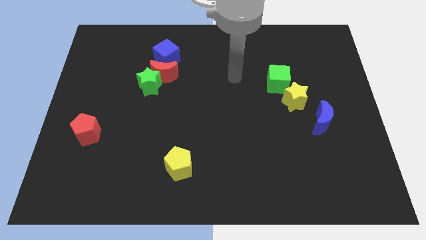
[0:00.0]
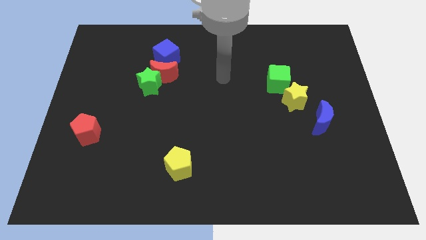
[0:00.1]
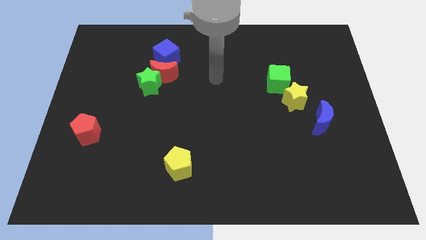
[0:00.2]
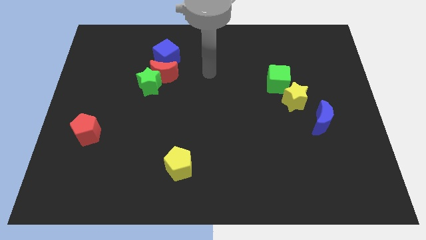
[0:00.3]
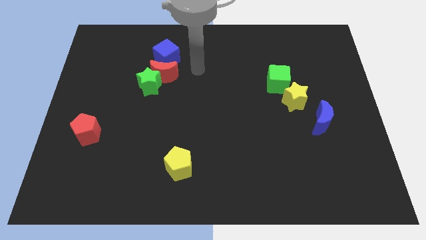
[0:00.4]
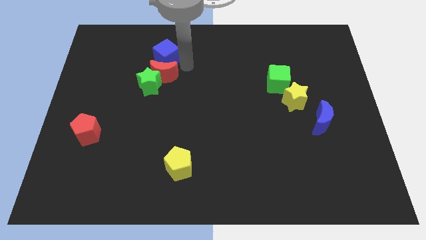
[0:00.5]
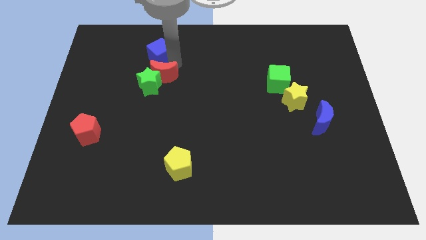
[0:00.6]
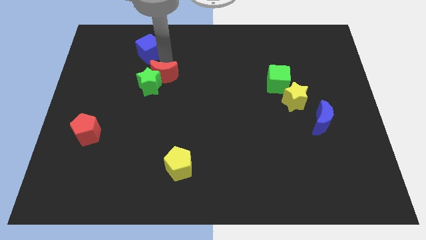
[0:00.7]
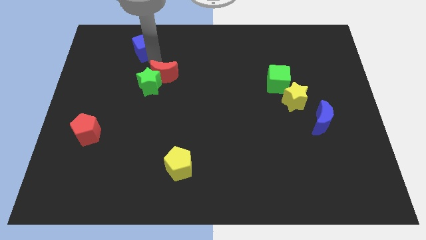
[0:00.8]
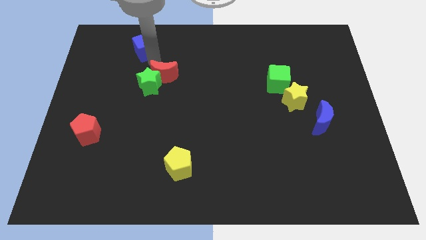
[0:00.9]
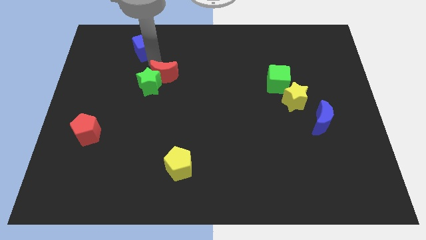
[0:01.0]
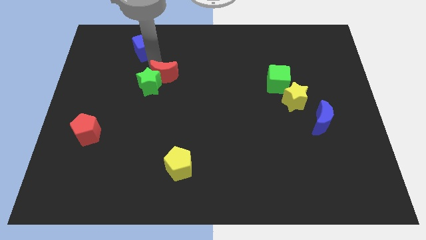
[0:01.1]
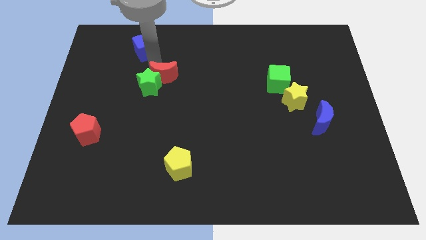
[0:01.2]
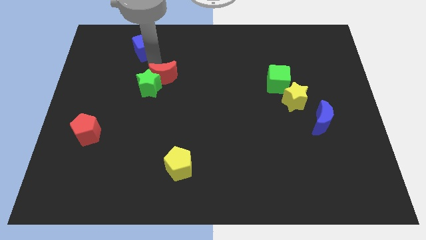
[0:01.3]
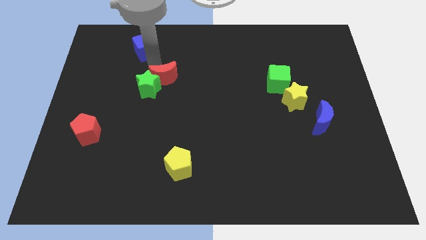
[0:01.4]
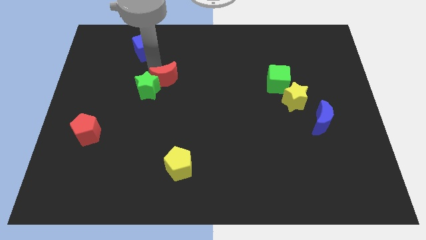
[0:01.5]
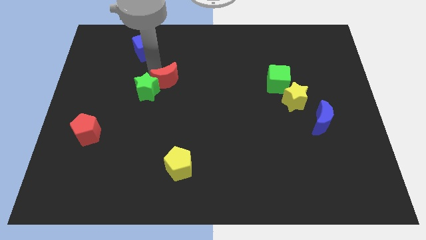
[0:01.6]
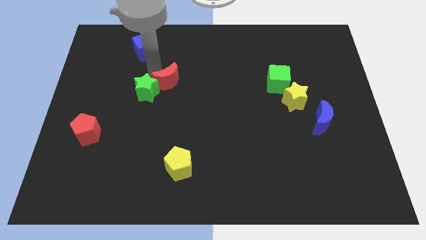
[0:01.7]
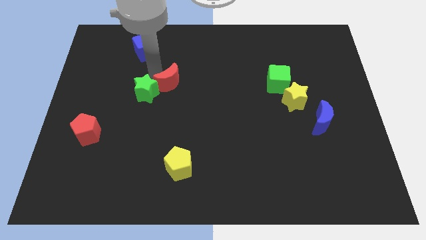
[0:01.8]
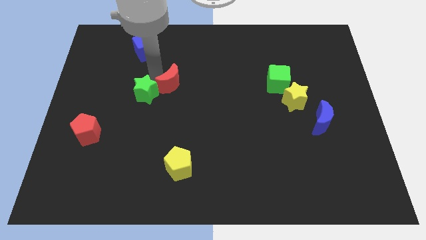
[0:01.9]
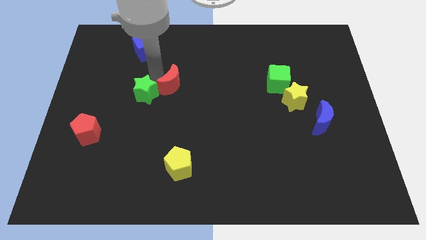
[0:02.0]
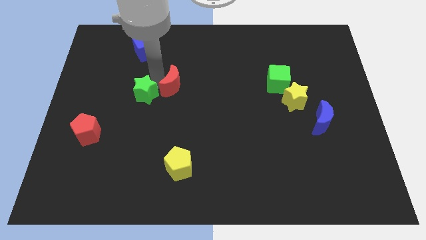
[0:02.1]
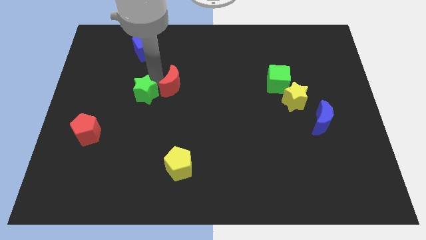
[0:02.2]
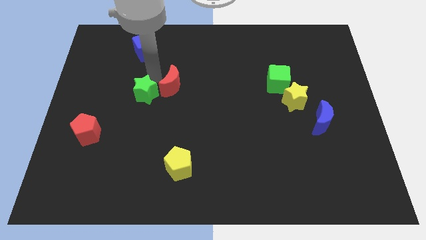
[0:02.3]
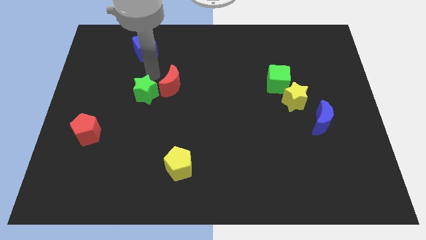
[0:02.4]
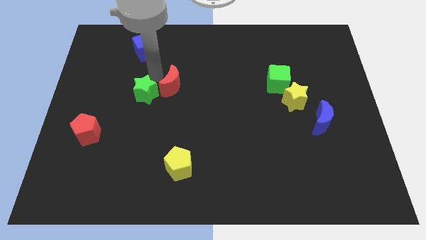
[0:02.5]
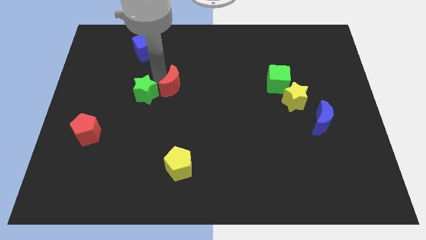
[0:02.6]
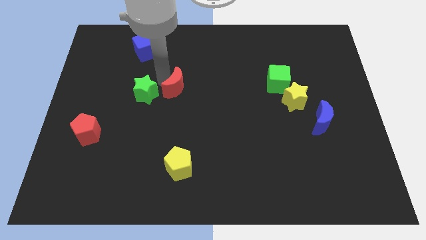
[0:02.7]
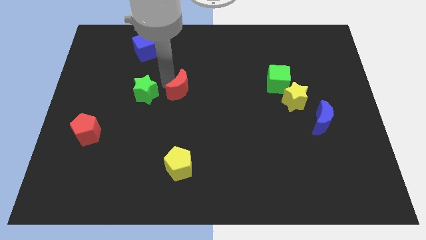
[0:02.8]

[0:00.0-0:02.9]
move the red moon away from the green star and blue cube

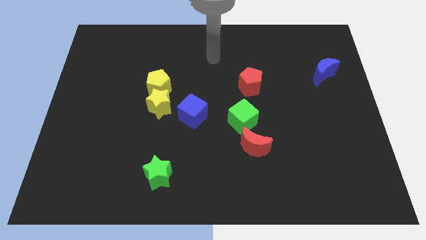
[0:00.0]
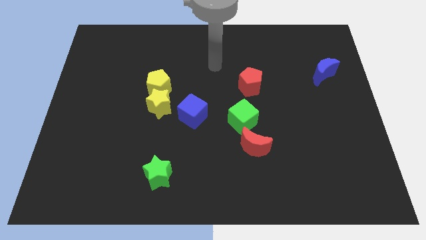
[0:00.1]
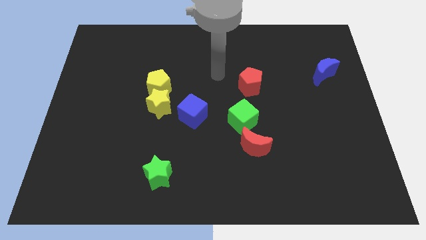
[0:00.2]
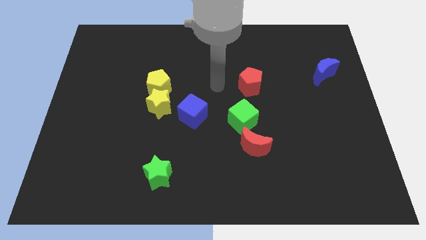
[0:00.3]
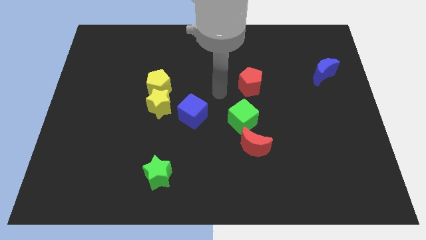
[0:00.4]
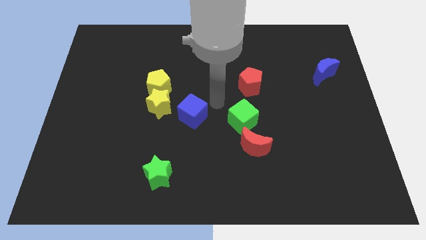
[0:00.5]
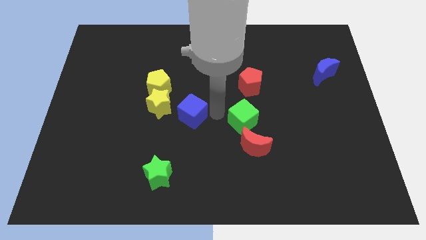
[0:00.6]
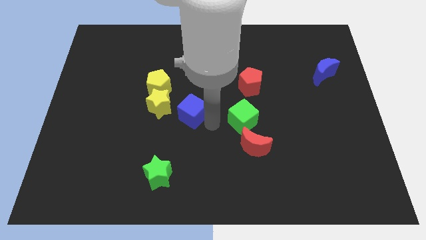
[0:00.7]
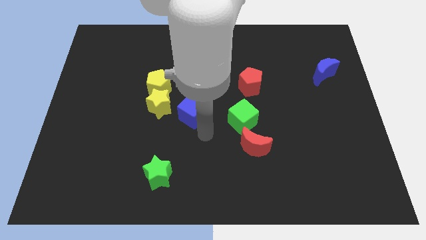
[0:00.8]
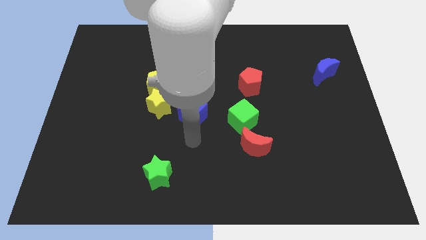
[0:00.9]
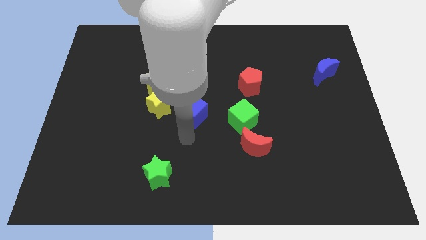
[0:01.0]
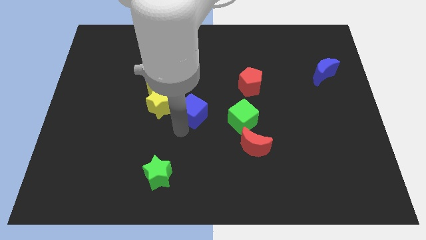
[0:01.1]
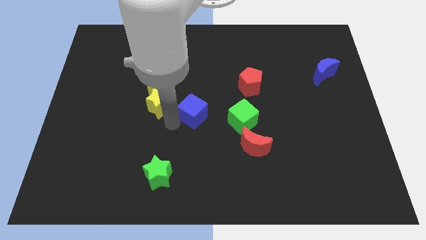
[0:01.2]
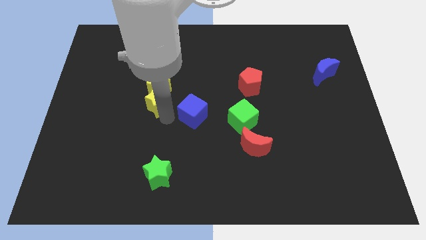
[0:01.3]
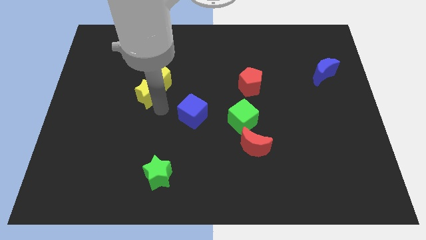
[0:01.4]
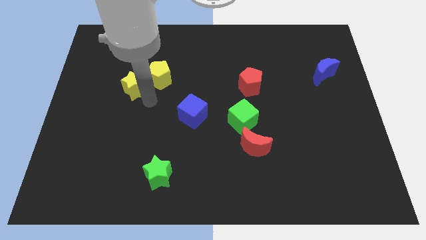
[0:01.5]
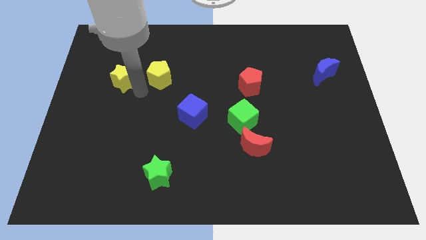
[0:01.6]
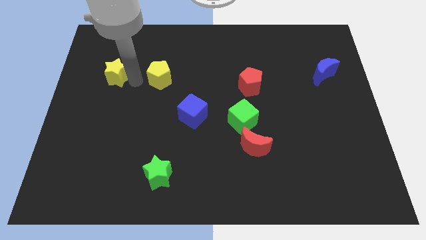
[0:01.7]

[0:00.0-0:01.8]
separate the yellow pentagon from the yellow star

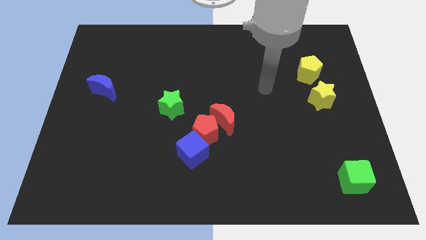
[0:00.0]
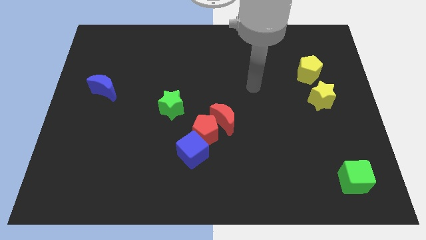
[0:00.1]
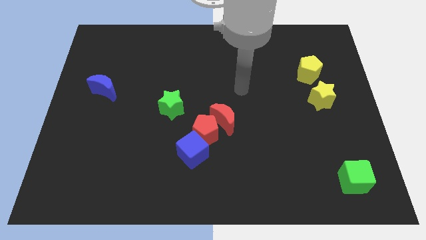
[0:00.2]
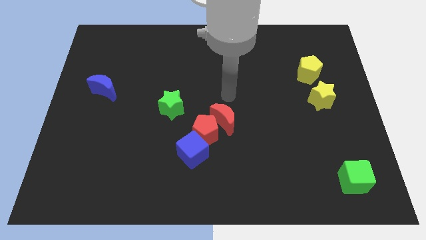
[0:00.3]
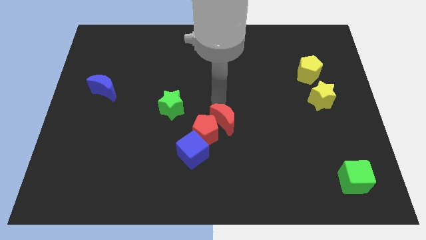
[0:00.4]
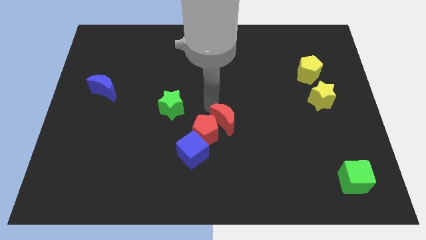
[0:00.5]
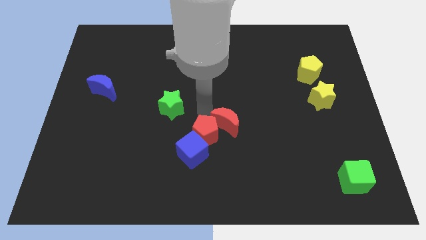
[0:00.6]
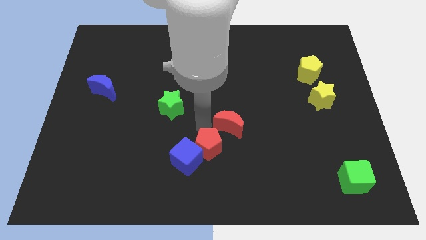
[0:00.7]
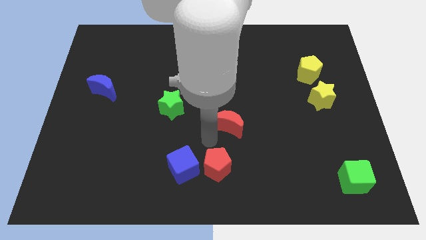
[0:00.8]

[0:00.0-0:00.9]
move the red moon away from the red pentagon

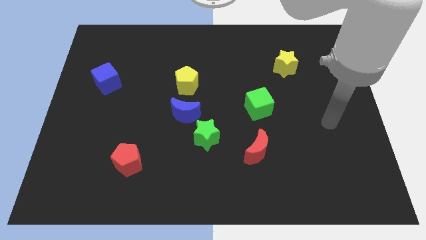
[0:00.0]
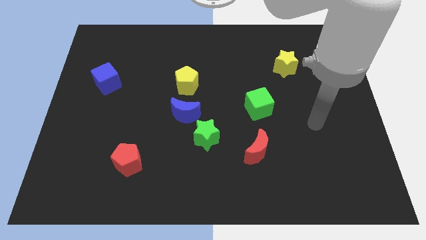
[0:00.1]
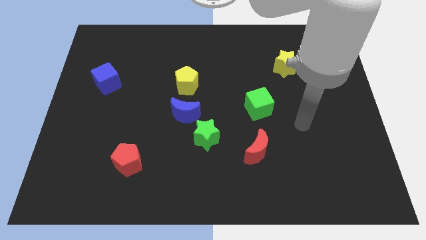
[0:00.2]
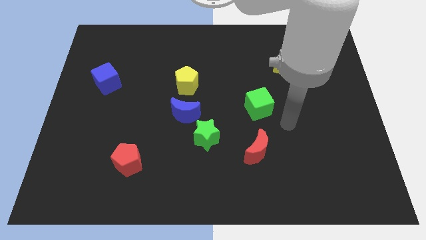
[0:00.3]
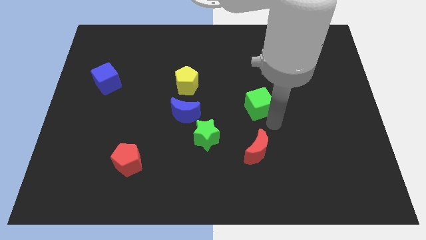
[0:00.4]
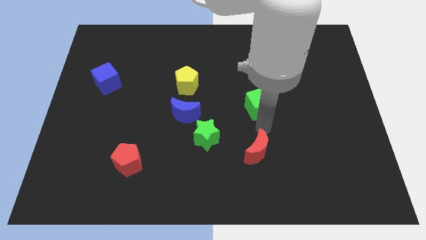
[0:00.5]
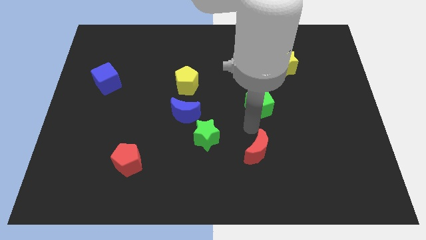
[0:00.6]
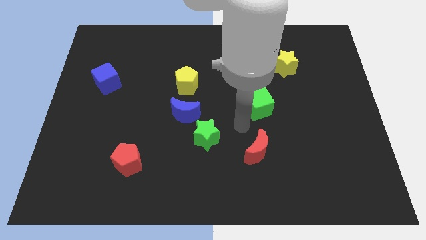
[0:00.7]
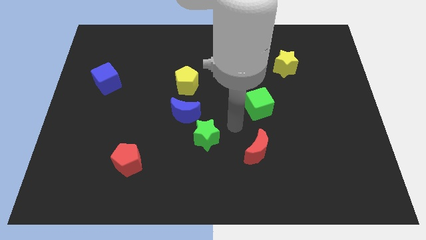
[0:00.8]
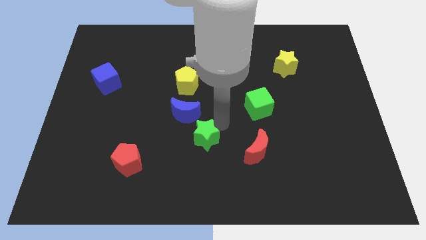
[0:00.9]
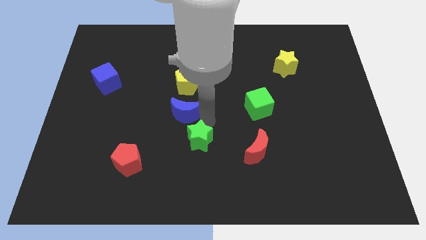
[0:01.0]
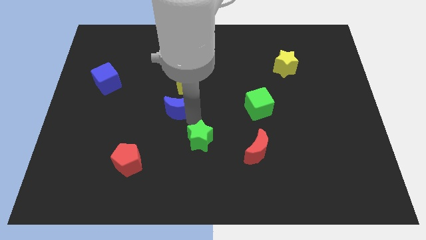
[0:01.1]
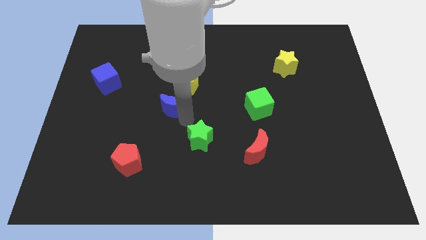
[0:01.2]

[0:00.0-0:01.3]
pull the green star apart from the blue moon

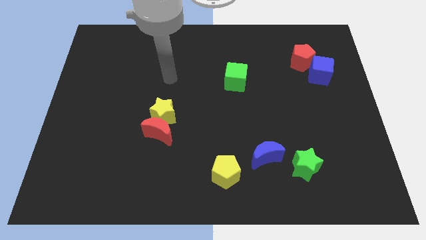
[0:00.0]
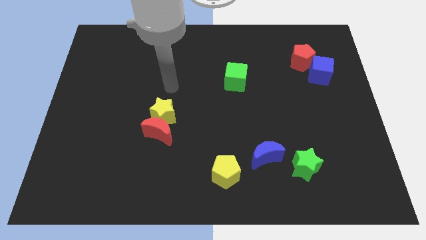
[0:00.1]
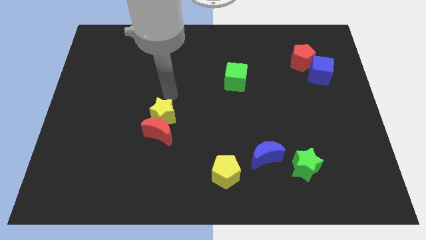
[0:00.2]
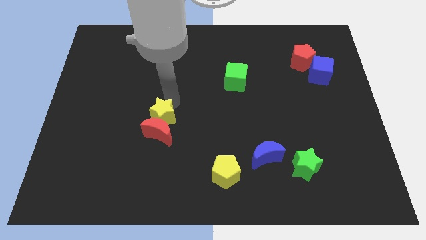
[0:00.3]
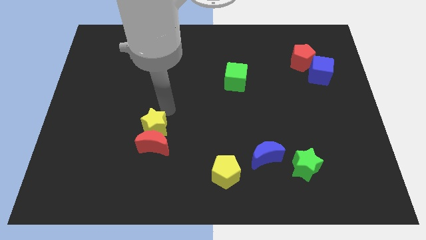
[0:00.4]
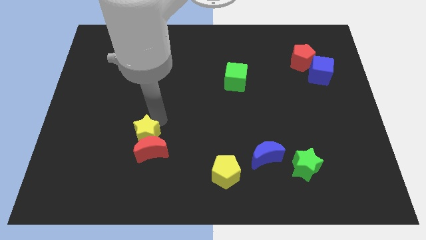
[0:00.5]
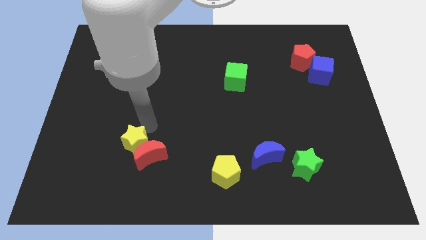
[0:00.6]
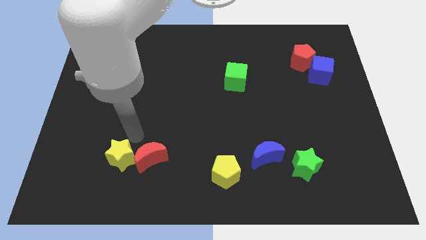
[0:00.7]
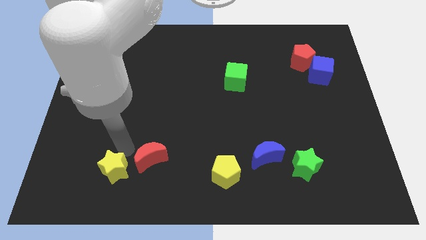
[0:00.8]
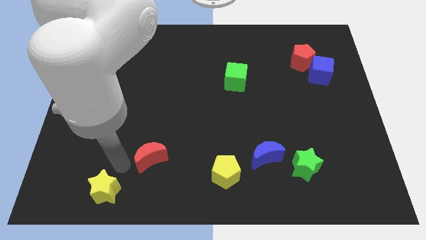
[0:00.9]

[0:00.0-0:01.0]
pull the red moon apart from the yellow star

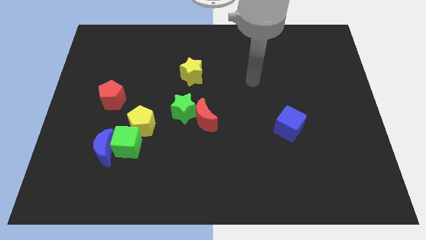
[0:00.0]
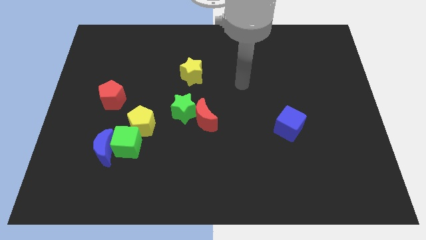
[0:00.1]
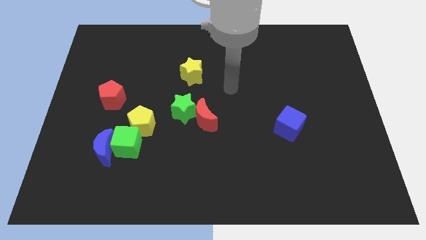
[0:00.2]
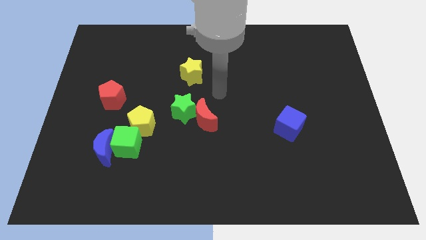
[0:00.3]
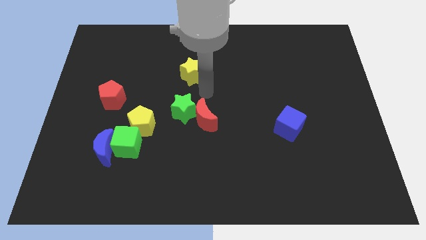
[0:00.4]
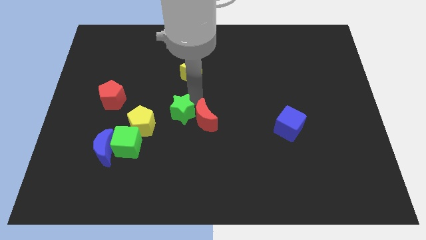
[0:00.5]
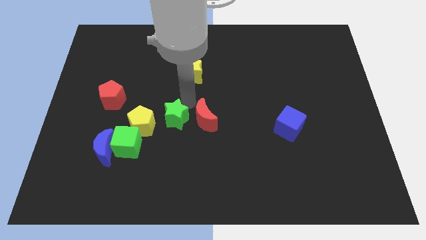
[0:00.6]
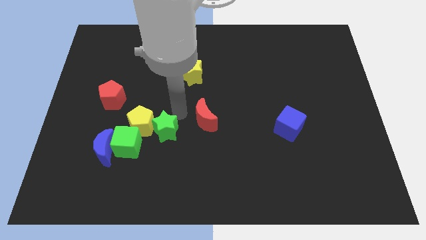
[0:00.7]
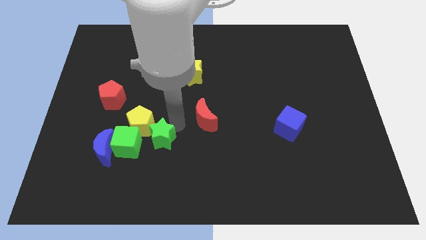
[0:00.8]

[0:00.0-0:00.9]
separate the red moon from the green star

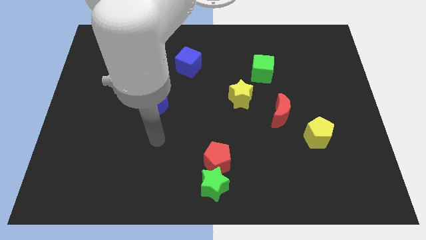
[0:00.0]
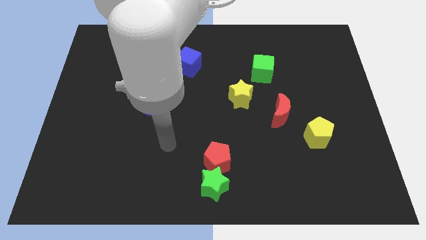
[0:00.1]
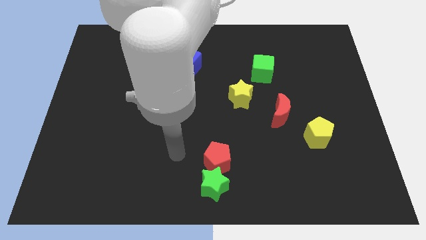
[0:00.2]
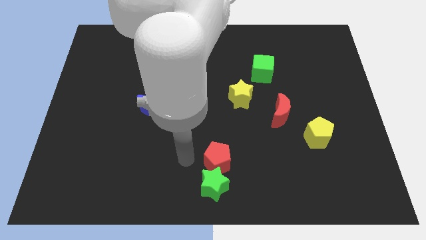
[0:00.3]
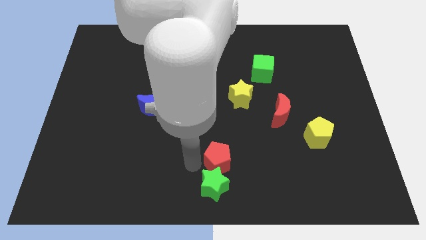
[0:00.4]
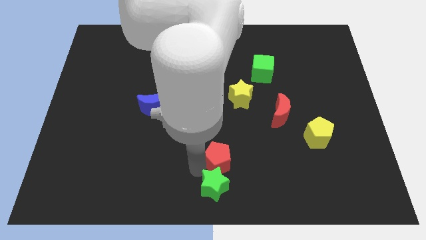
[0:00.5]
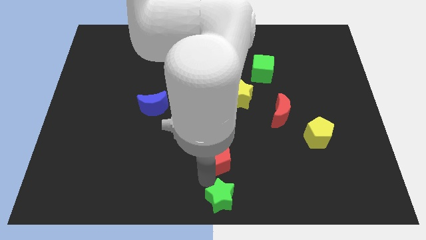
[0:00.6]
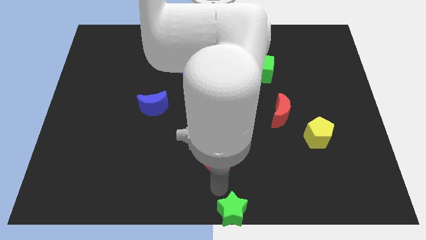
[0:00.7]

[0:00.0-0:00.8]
move the red pentagon away from the green star
